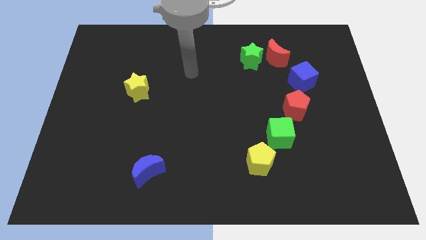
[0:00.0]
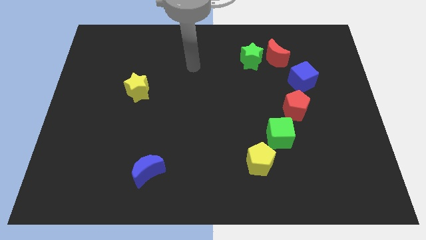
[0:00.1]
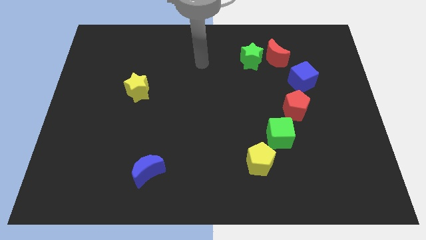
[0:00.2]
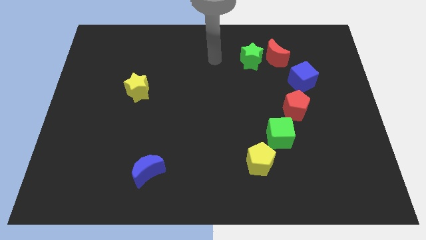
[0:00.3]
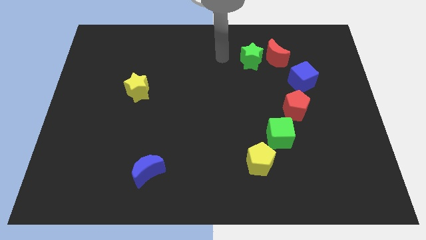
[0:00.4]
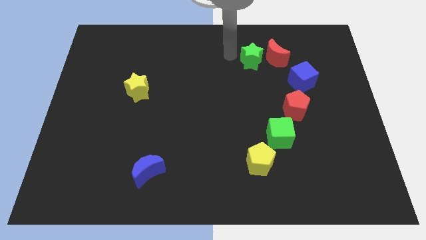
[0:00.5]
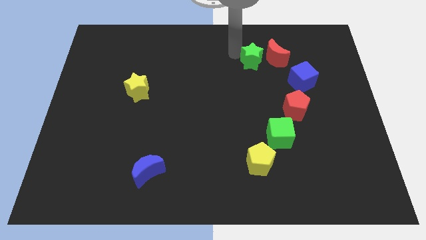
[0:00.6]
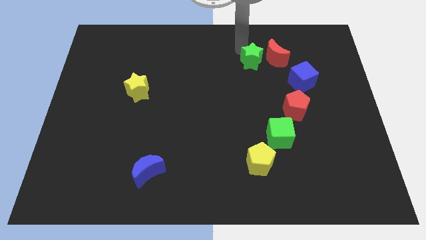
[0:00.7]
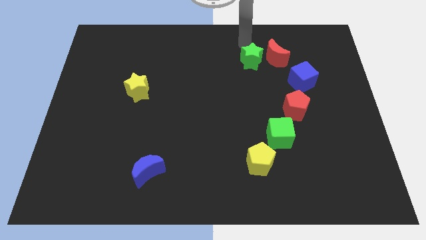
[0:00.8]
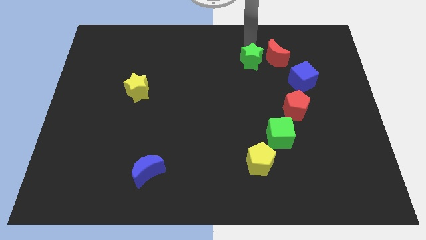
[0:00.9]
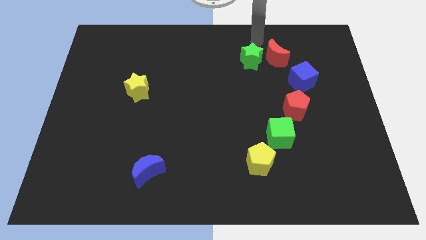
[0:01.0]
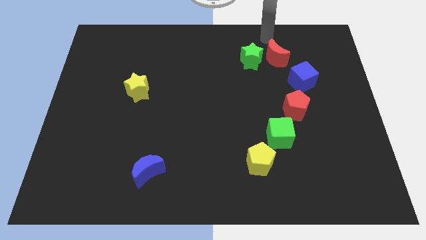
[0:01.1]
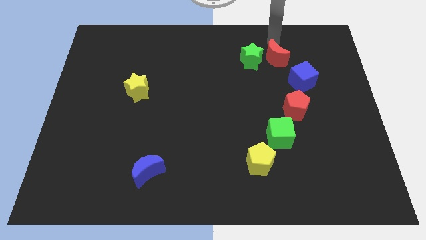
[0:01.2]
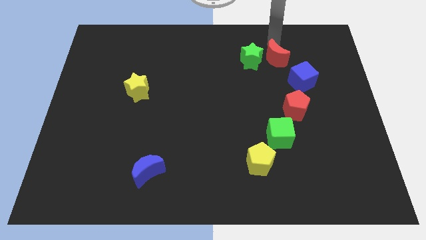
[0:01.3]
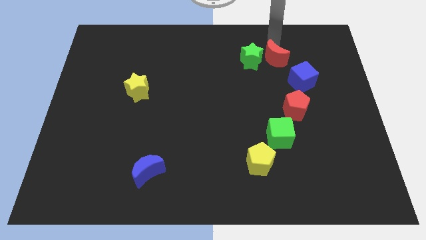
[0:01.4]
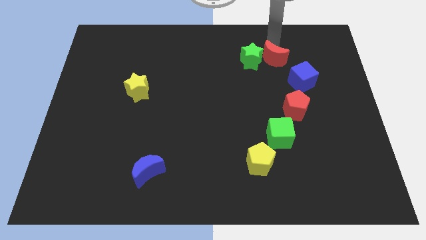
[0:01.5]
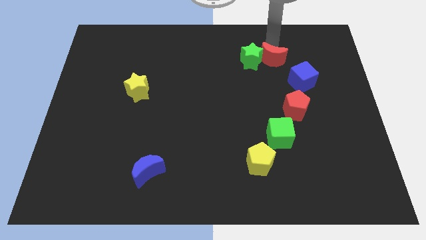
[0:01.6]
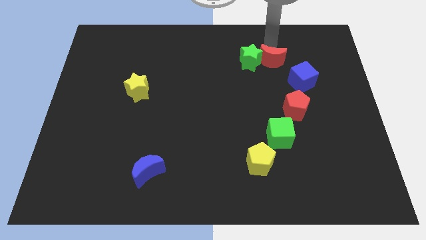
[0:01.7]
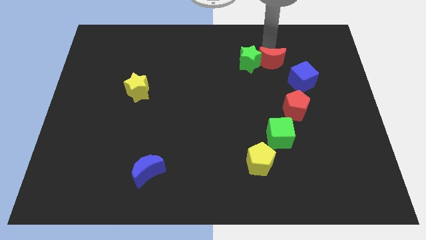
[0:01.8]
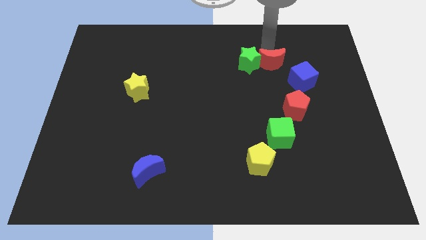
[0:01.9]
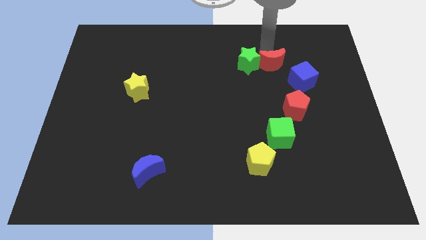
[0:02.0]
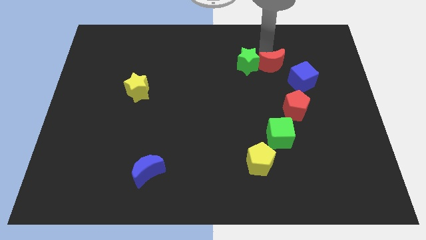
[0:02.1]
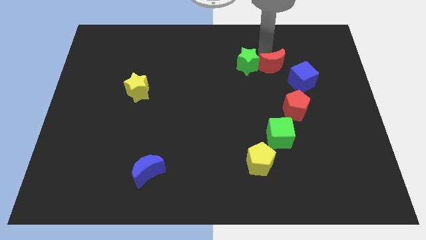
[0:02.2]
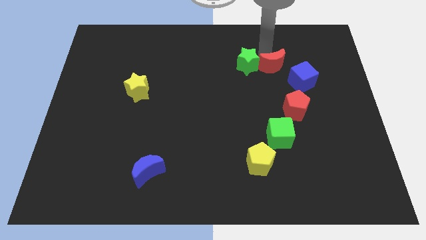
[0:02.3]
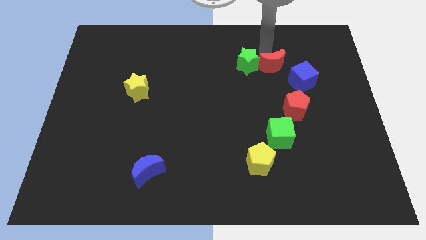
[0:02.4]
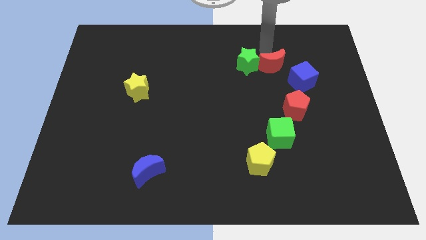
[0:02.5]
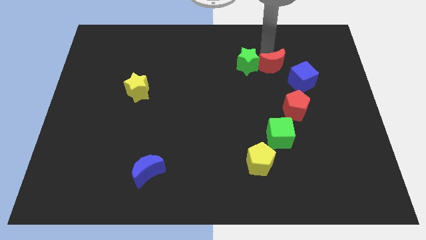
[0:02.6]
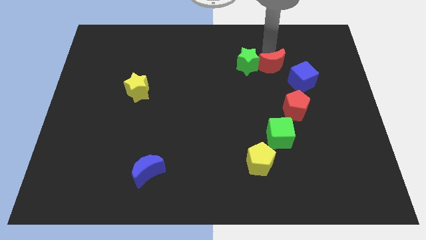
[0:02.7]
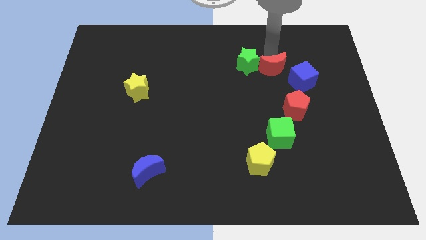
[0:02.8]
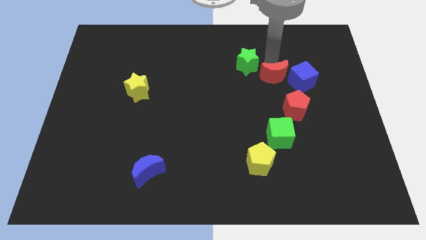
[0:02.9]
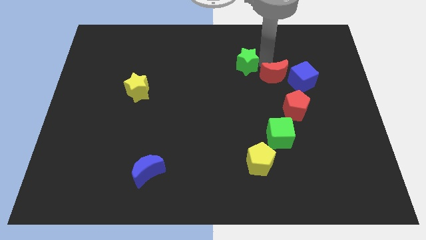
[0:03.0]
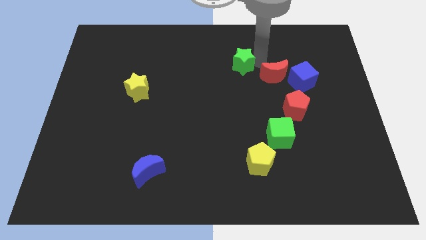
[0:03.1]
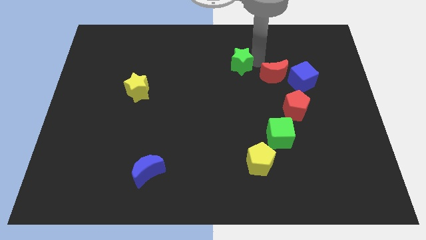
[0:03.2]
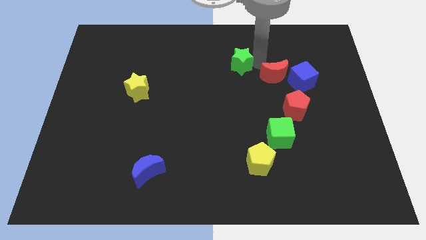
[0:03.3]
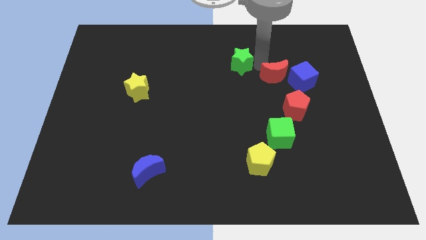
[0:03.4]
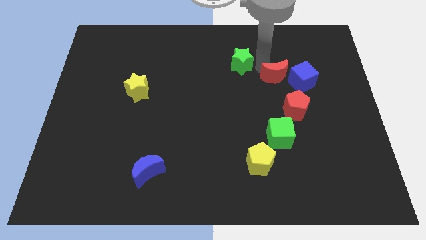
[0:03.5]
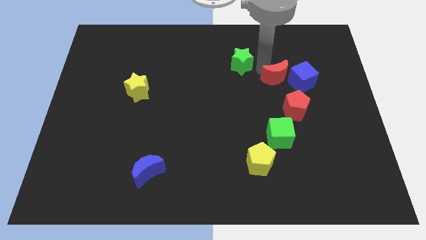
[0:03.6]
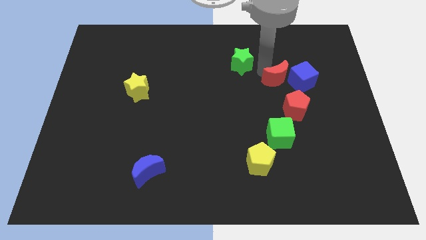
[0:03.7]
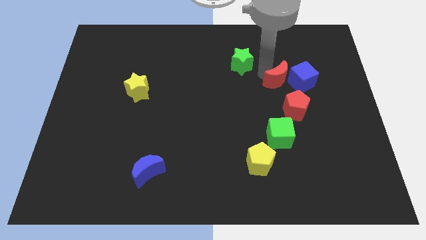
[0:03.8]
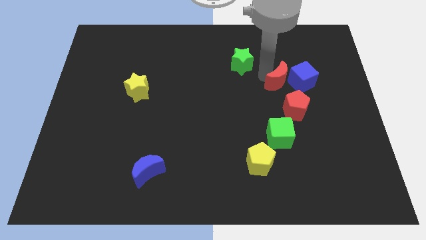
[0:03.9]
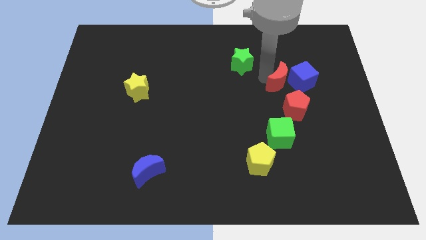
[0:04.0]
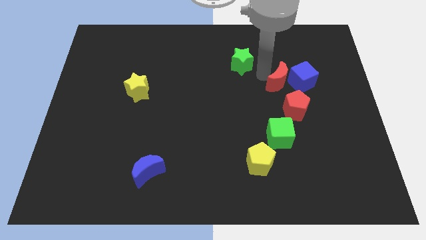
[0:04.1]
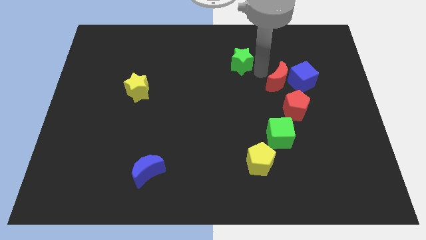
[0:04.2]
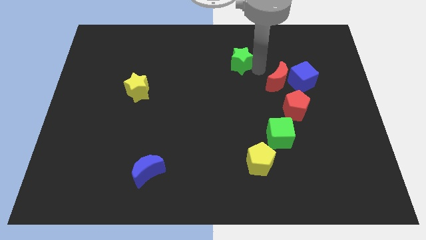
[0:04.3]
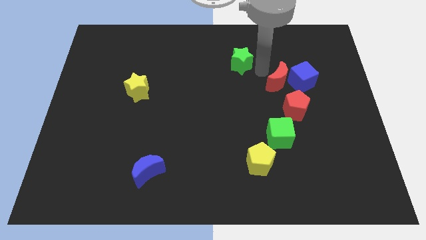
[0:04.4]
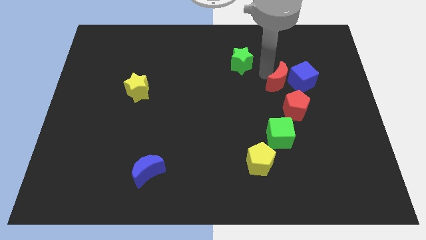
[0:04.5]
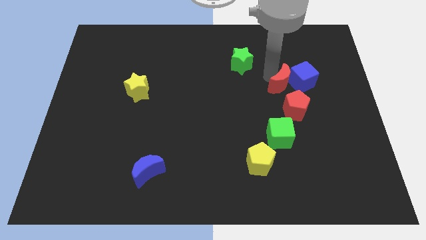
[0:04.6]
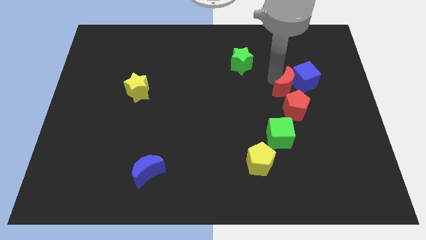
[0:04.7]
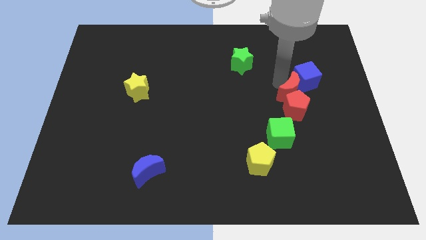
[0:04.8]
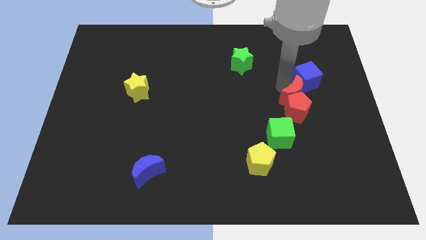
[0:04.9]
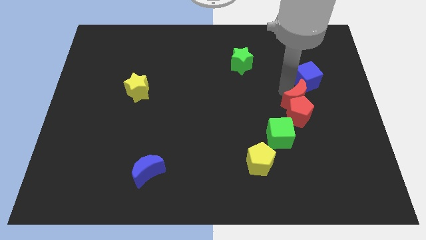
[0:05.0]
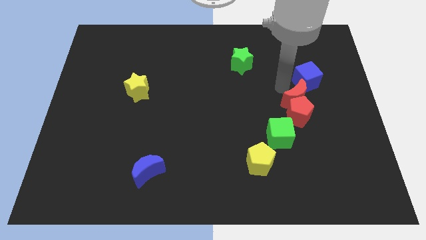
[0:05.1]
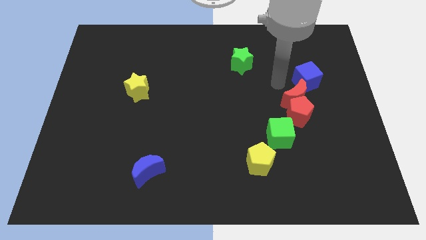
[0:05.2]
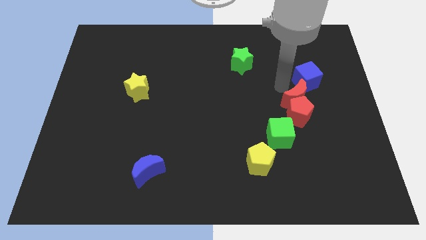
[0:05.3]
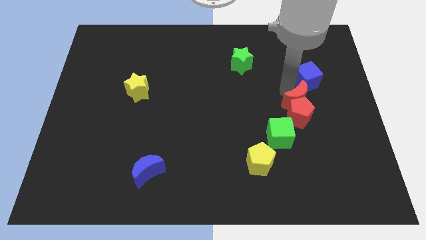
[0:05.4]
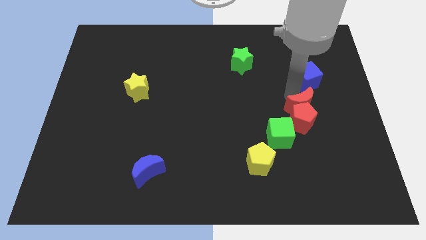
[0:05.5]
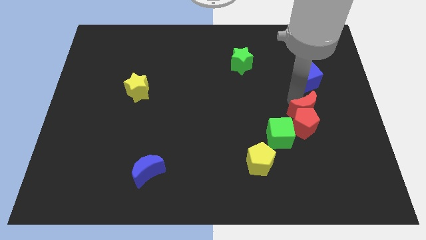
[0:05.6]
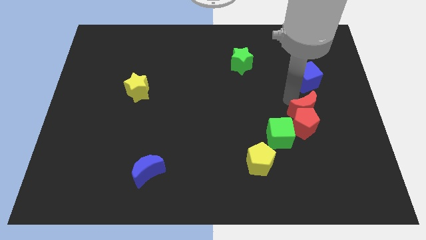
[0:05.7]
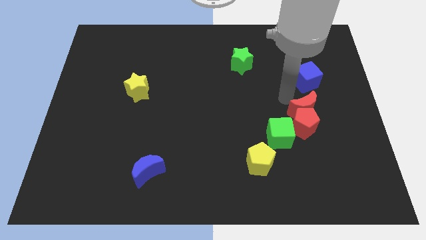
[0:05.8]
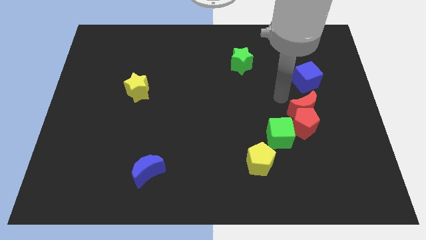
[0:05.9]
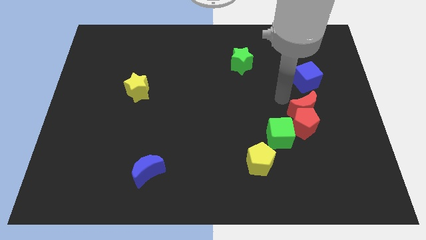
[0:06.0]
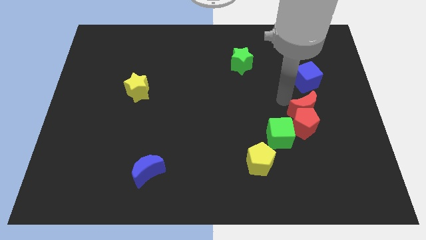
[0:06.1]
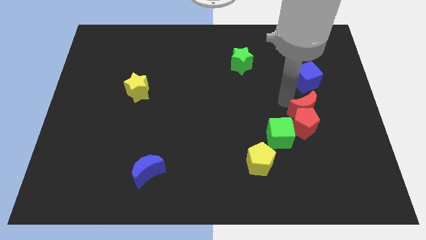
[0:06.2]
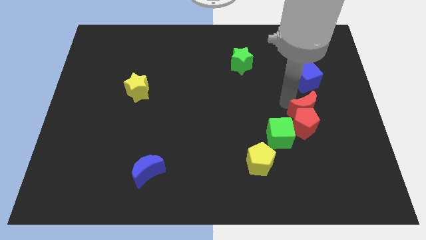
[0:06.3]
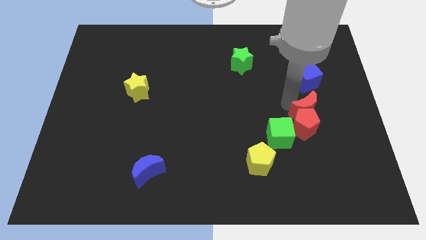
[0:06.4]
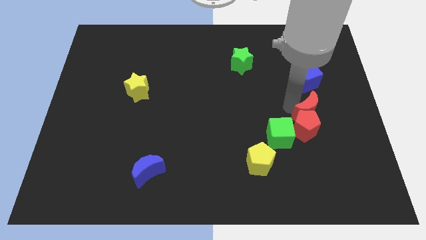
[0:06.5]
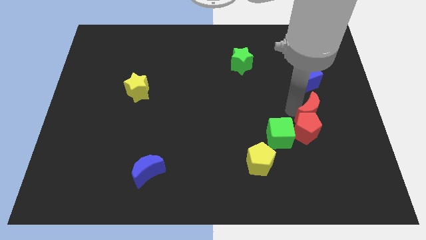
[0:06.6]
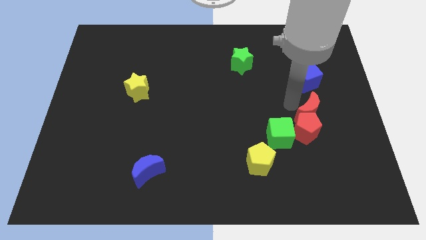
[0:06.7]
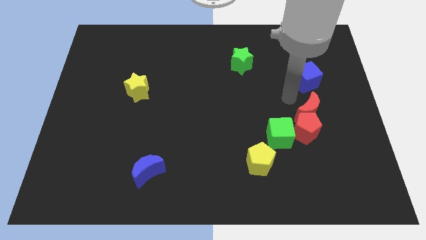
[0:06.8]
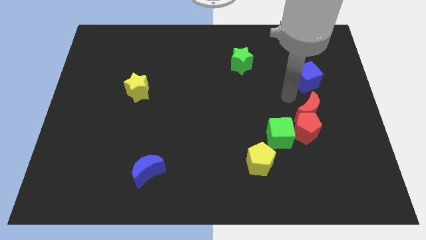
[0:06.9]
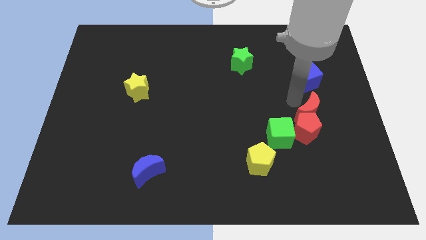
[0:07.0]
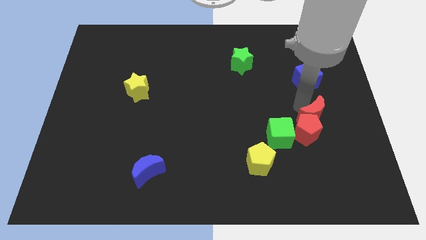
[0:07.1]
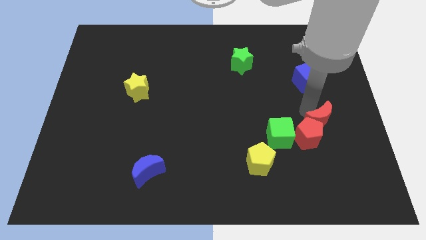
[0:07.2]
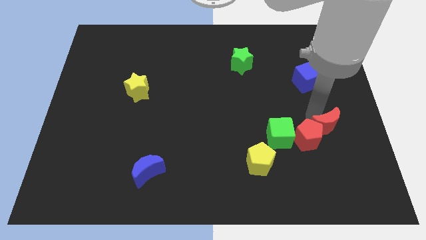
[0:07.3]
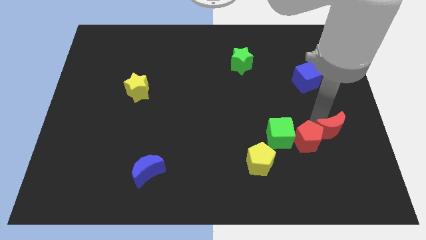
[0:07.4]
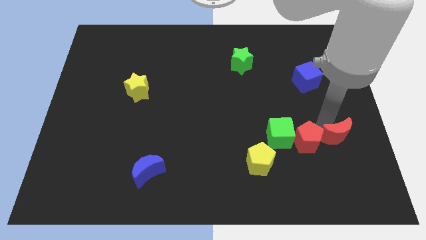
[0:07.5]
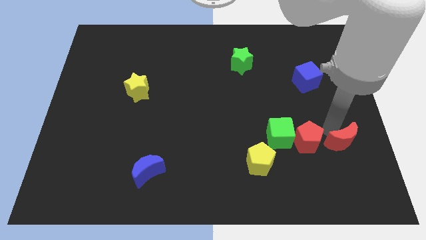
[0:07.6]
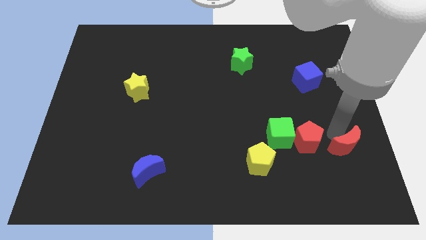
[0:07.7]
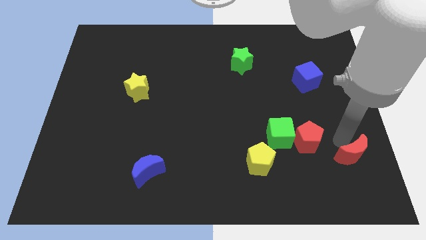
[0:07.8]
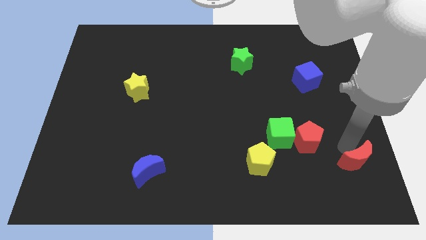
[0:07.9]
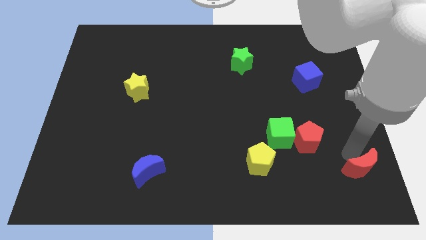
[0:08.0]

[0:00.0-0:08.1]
slide the red moon to the bottom right of the board
